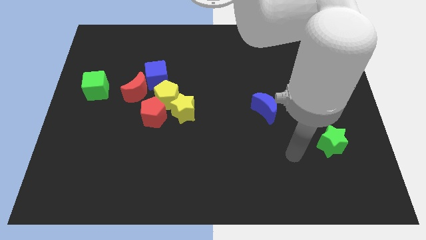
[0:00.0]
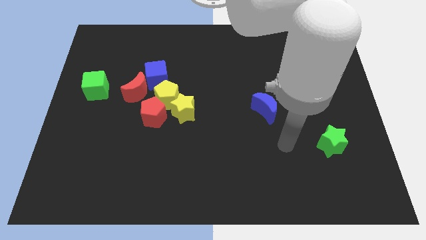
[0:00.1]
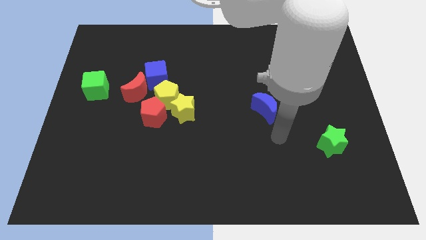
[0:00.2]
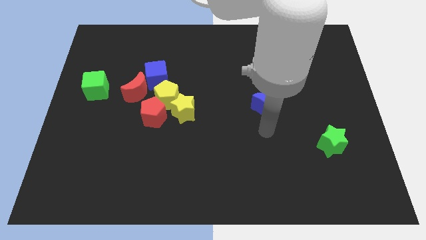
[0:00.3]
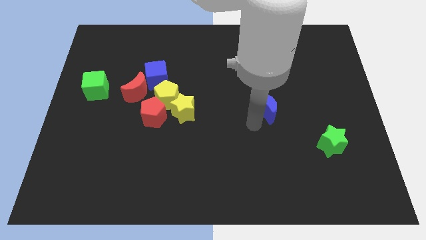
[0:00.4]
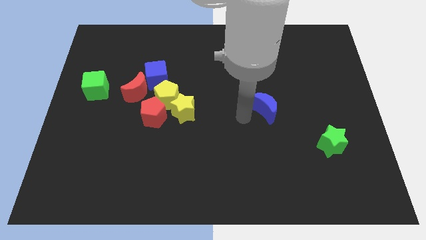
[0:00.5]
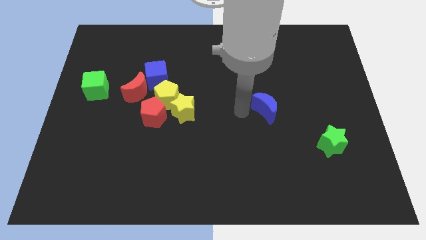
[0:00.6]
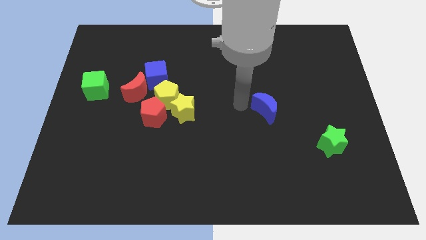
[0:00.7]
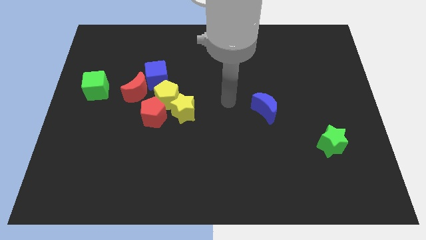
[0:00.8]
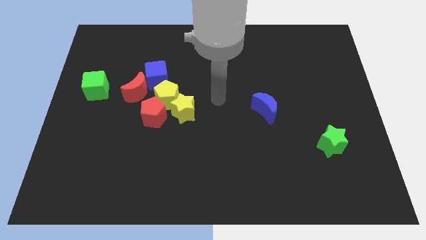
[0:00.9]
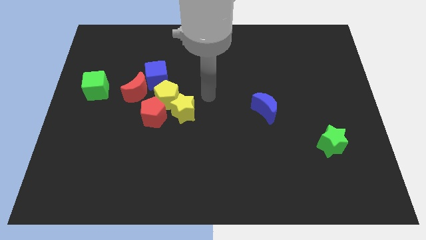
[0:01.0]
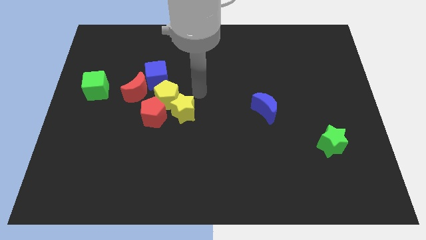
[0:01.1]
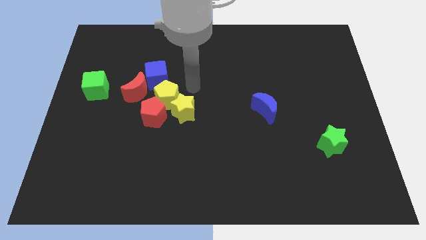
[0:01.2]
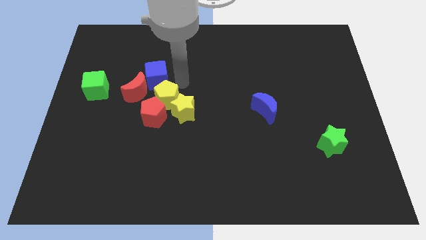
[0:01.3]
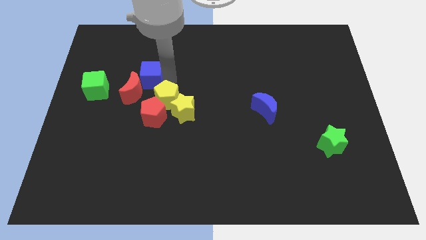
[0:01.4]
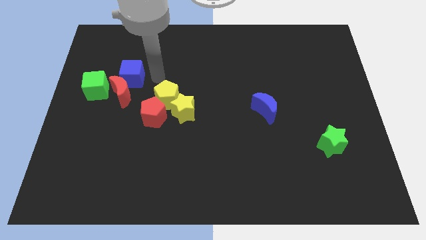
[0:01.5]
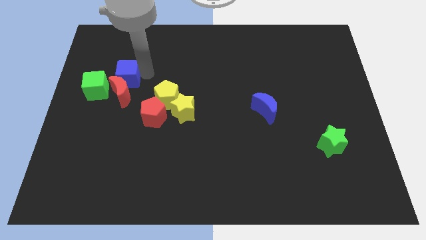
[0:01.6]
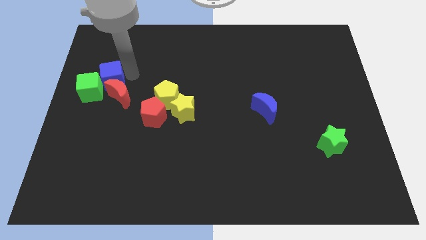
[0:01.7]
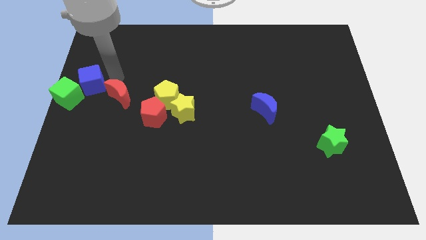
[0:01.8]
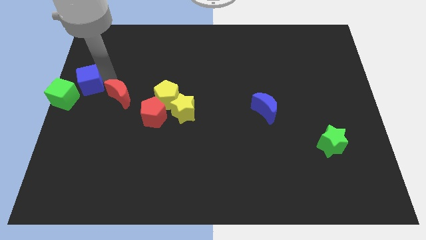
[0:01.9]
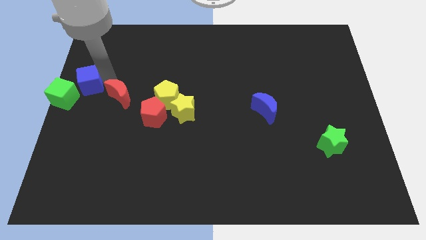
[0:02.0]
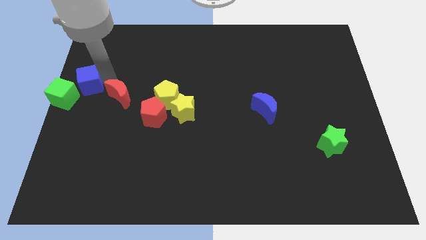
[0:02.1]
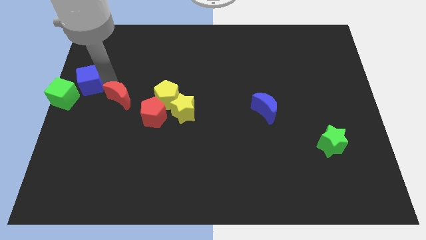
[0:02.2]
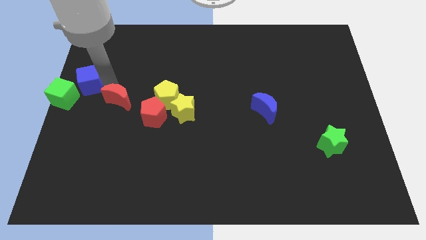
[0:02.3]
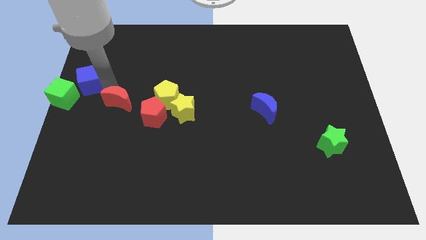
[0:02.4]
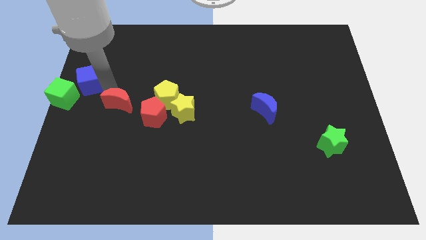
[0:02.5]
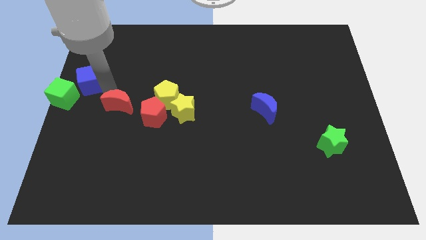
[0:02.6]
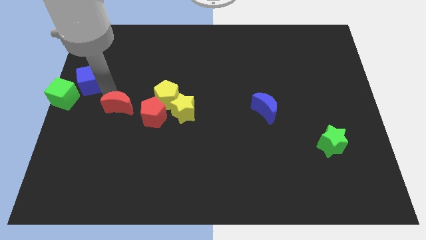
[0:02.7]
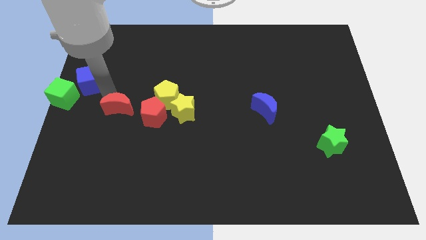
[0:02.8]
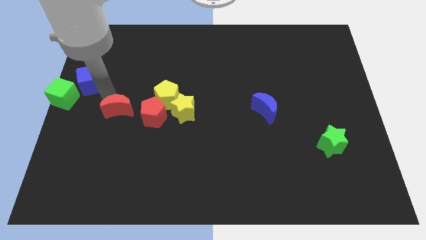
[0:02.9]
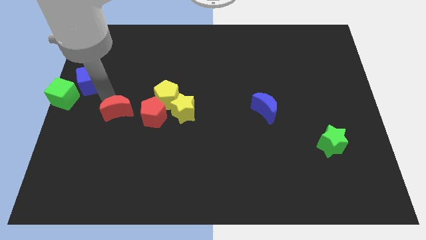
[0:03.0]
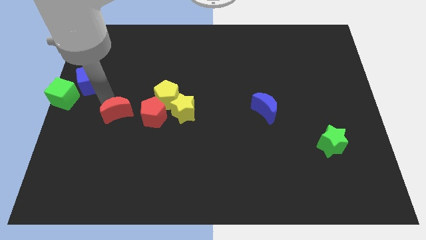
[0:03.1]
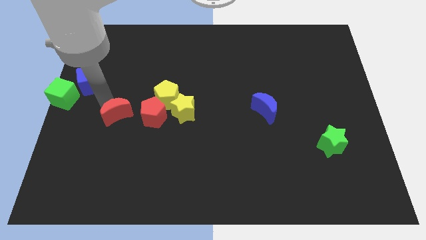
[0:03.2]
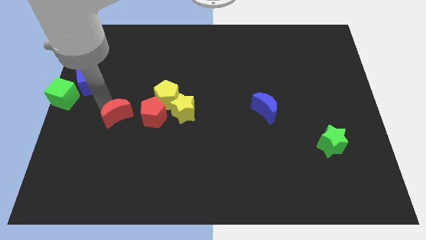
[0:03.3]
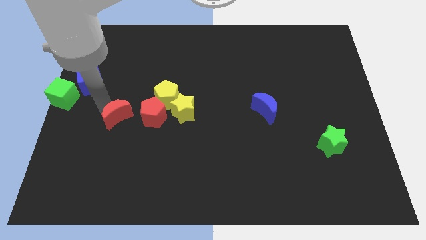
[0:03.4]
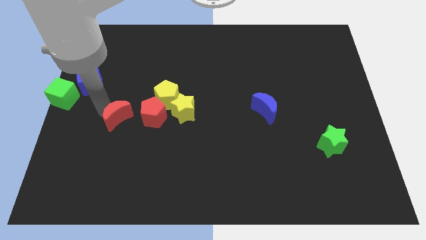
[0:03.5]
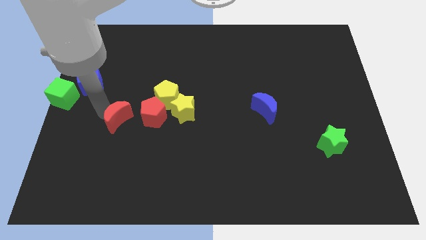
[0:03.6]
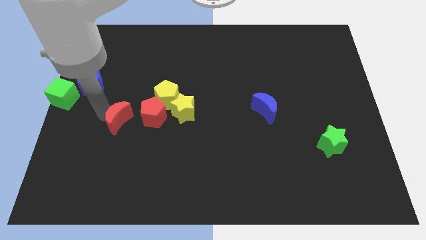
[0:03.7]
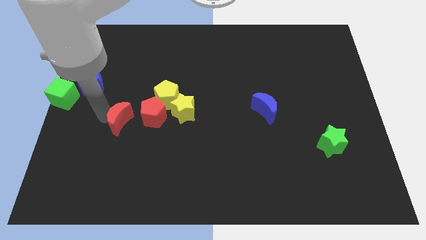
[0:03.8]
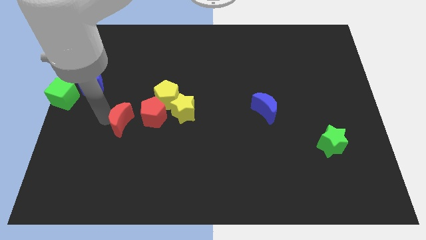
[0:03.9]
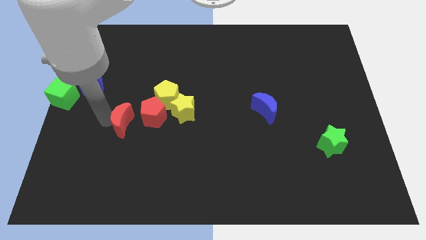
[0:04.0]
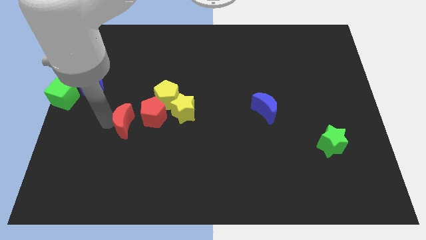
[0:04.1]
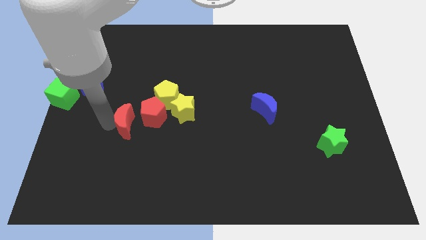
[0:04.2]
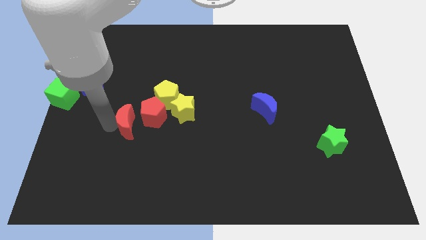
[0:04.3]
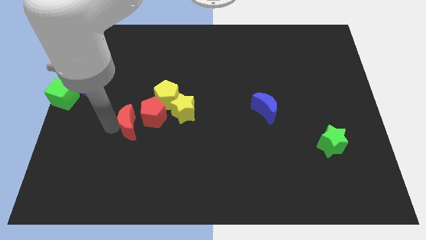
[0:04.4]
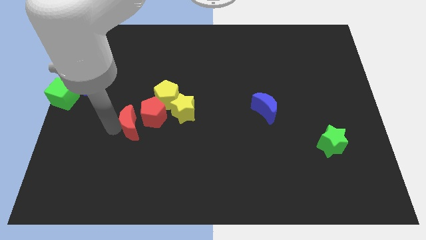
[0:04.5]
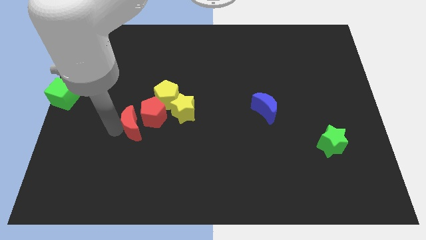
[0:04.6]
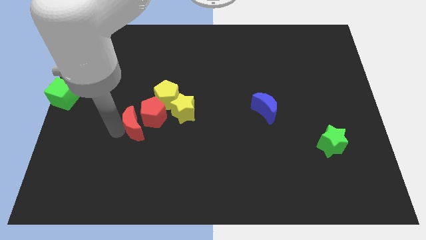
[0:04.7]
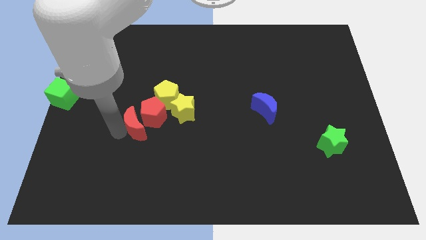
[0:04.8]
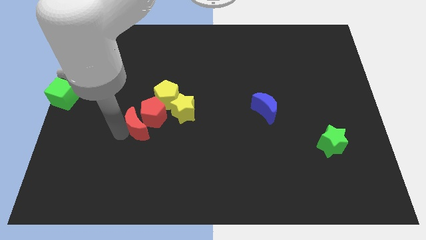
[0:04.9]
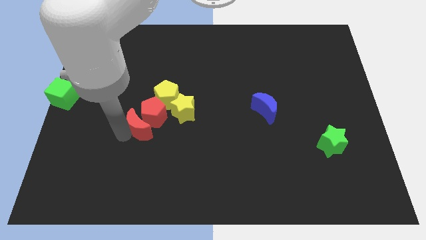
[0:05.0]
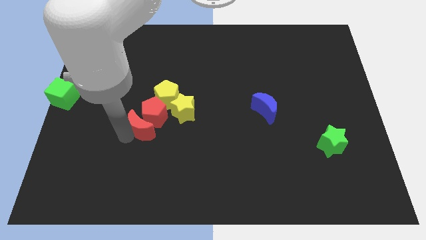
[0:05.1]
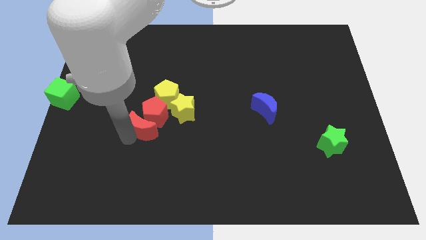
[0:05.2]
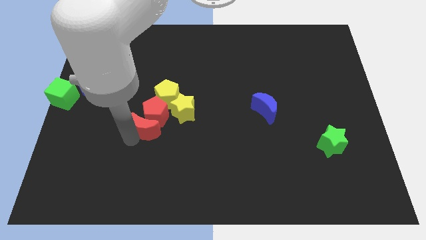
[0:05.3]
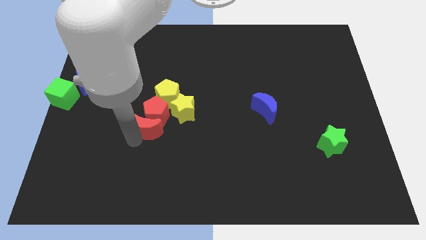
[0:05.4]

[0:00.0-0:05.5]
move the red moon to the bottom right of the red pentagon

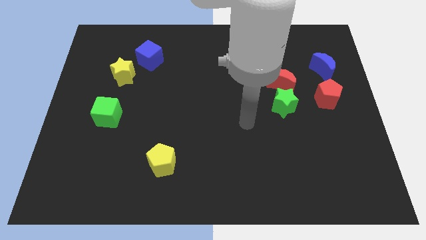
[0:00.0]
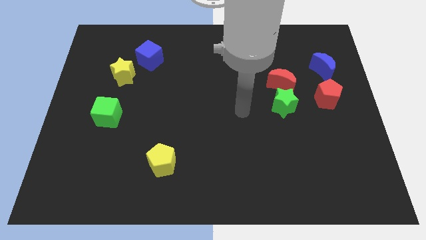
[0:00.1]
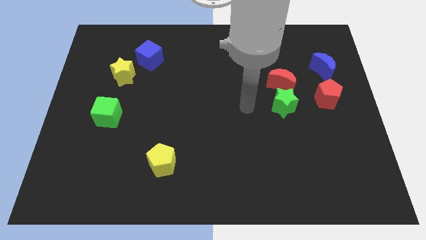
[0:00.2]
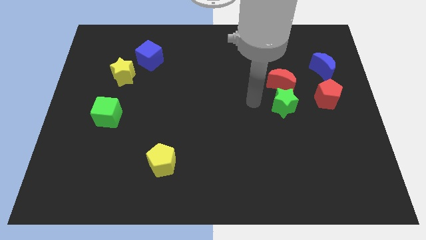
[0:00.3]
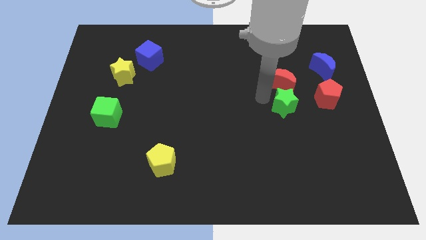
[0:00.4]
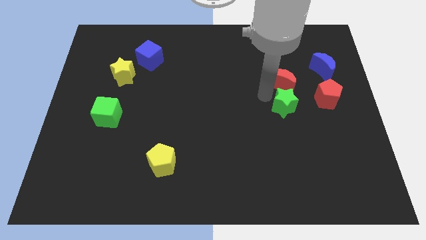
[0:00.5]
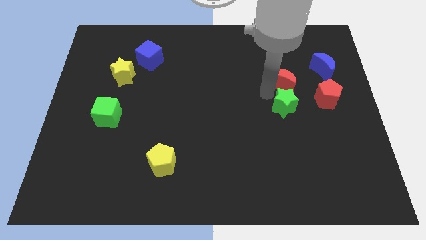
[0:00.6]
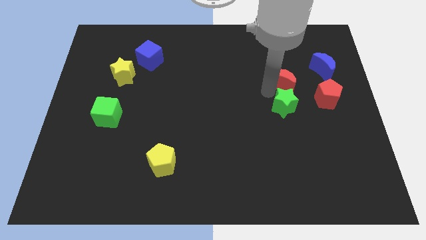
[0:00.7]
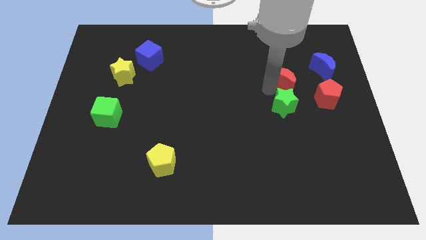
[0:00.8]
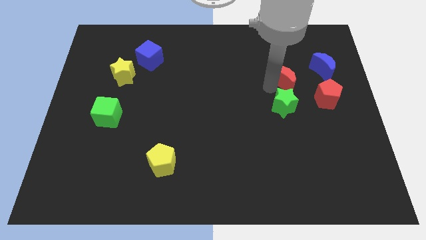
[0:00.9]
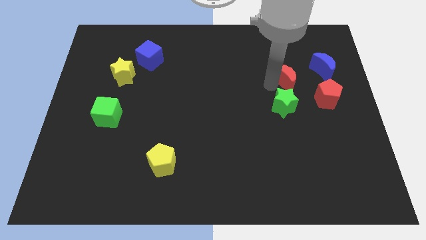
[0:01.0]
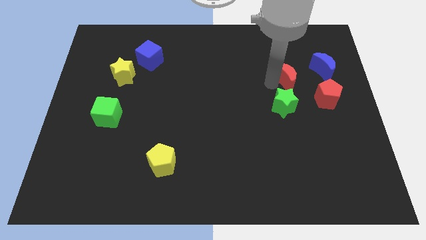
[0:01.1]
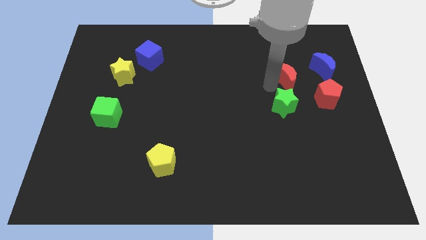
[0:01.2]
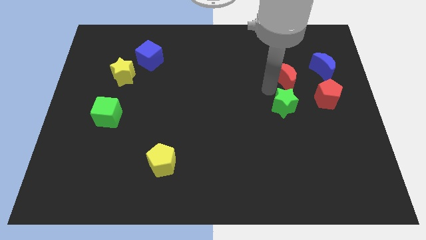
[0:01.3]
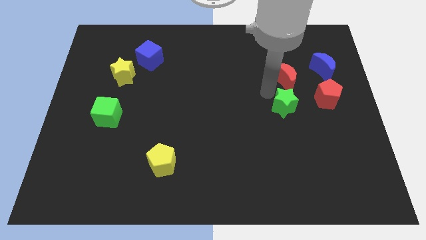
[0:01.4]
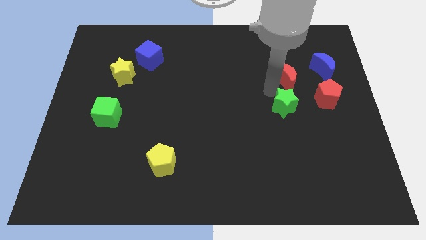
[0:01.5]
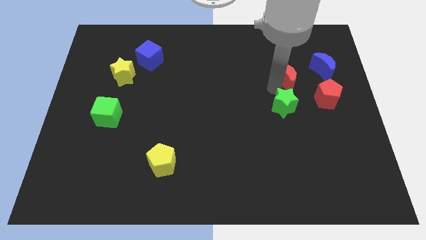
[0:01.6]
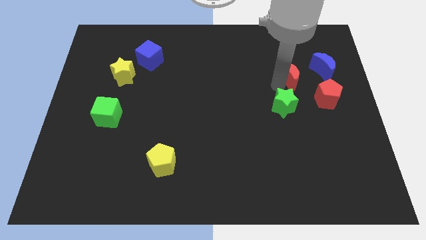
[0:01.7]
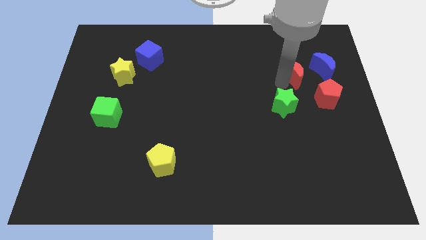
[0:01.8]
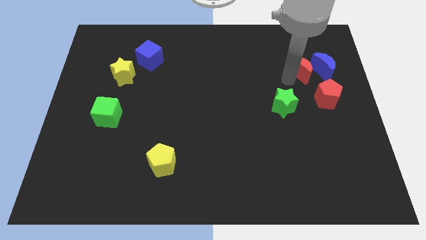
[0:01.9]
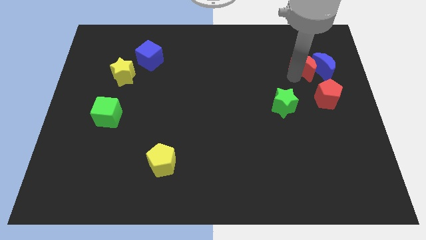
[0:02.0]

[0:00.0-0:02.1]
put the red moon above the red pentagon
